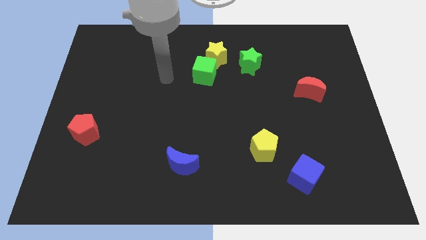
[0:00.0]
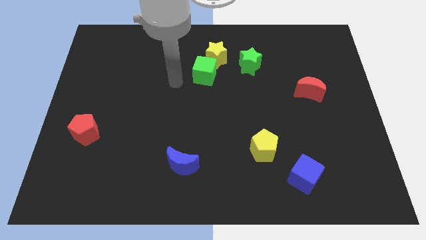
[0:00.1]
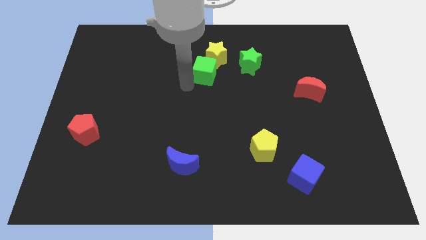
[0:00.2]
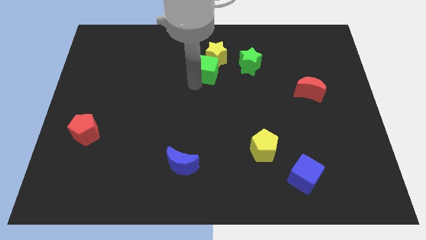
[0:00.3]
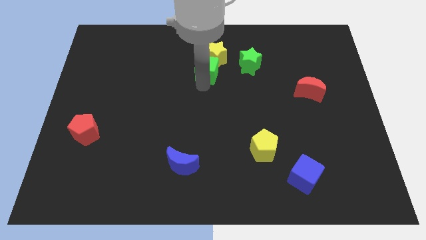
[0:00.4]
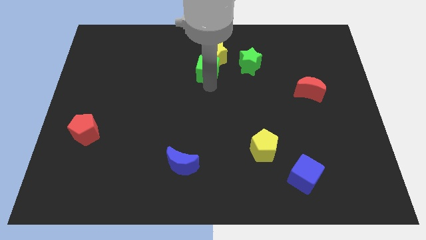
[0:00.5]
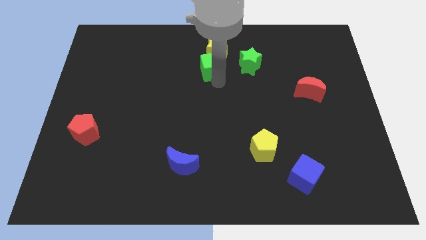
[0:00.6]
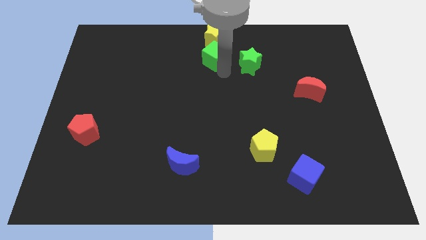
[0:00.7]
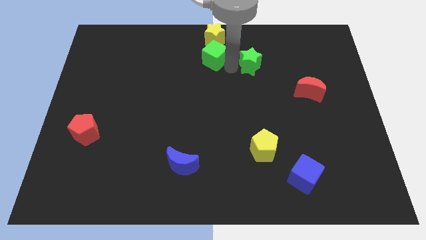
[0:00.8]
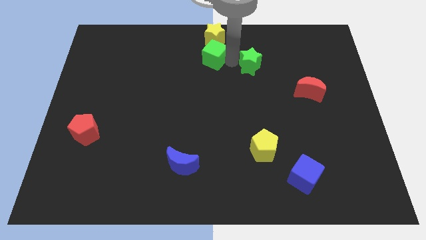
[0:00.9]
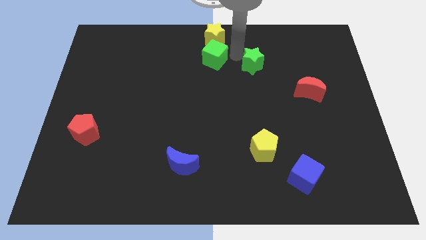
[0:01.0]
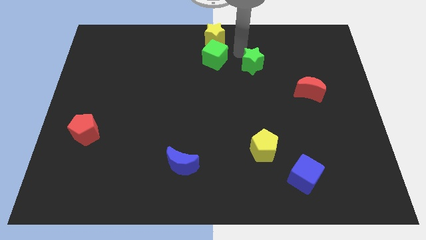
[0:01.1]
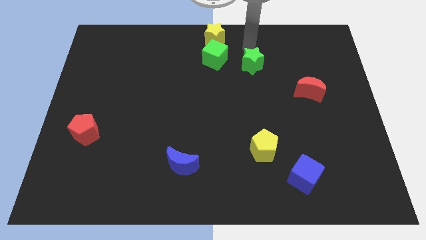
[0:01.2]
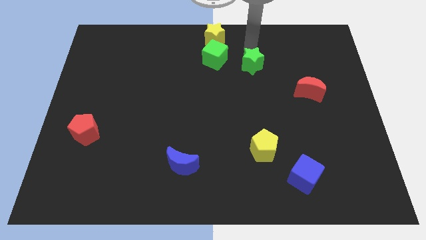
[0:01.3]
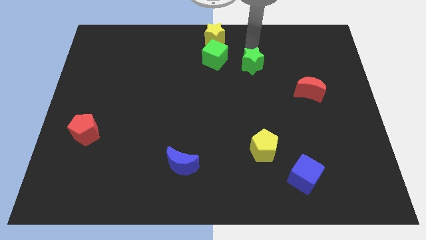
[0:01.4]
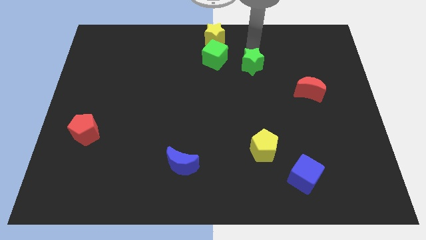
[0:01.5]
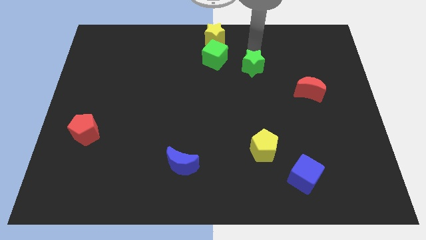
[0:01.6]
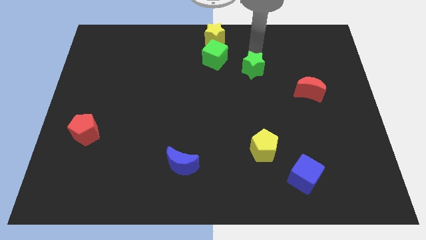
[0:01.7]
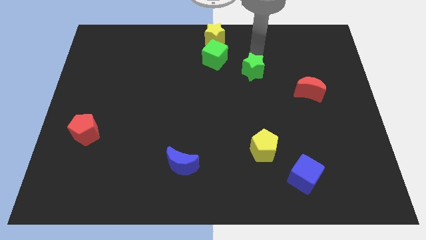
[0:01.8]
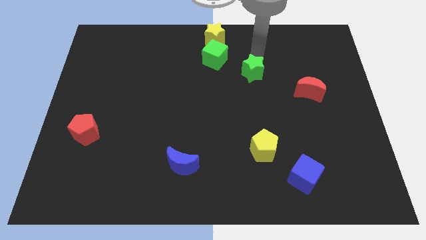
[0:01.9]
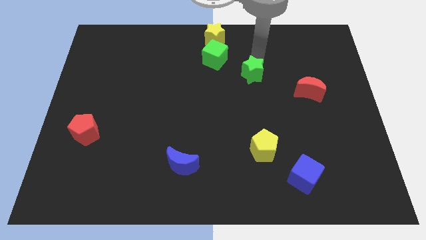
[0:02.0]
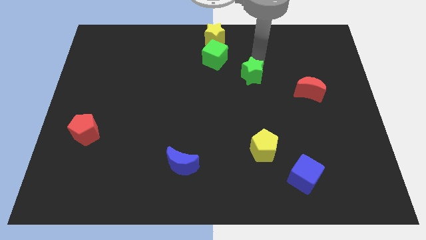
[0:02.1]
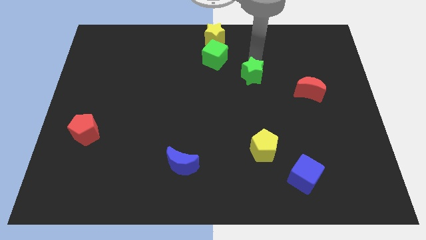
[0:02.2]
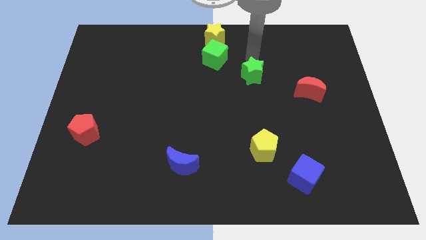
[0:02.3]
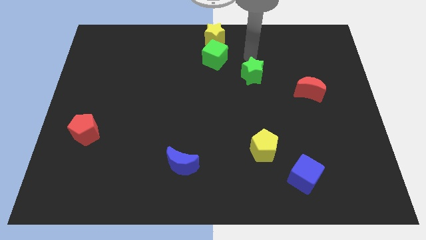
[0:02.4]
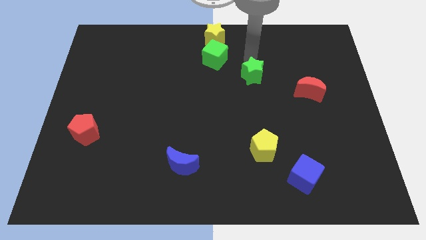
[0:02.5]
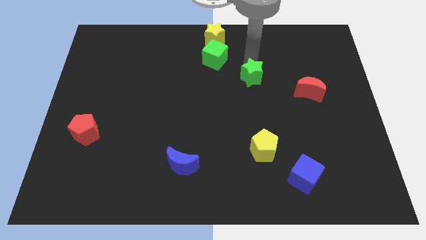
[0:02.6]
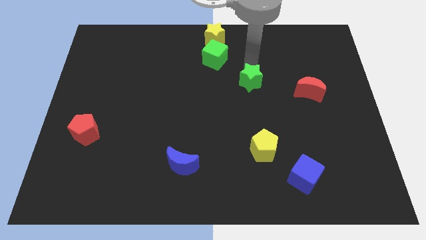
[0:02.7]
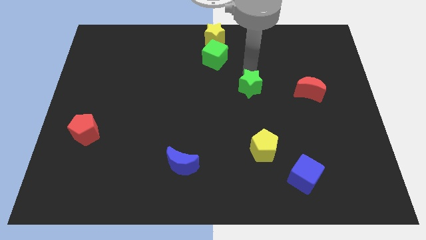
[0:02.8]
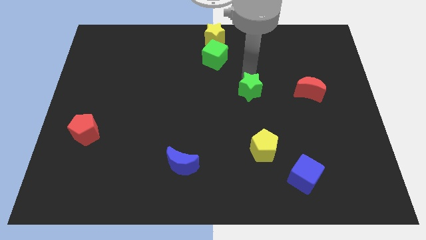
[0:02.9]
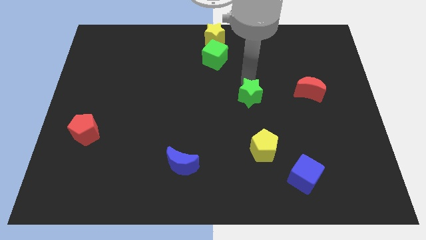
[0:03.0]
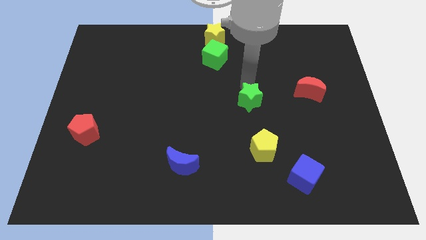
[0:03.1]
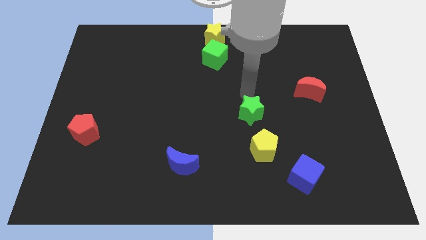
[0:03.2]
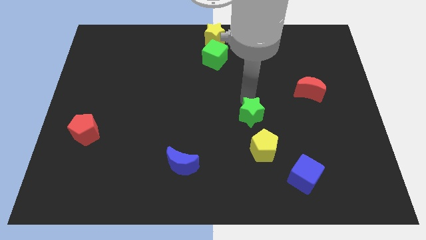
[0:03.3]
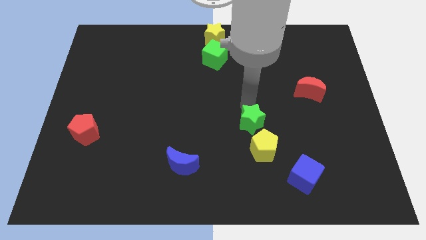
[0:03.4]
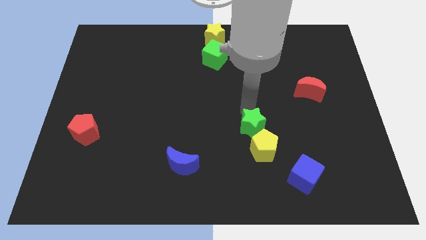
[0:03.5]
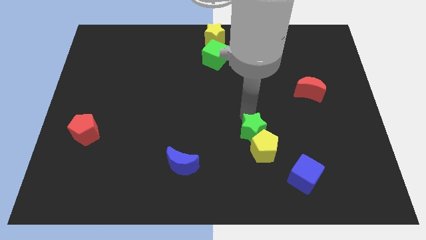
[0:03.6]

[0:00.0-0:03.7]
put the green star close to the yellow pentagon

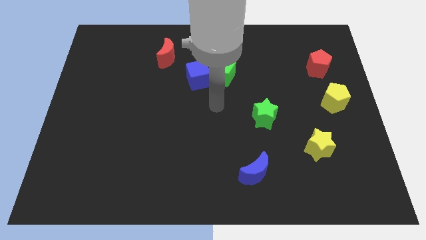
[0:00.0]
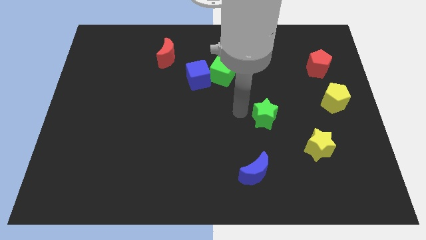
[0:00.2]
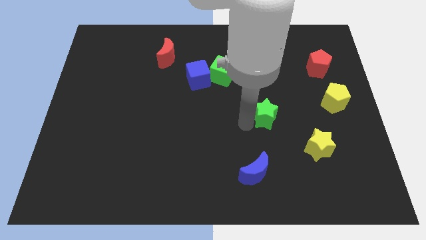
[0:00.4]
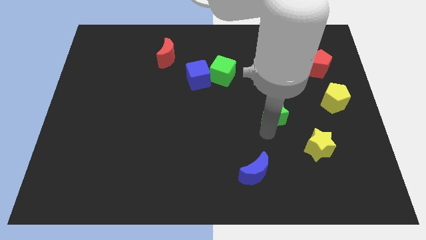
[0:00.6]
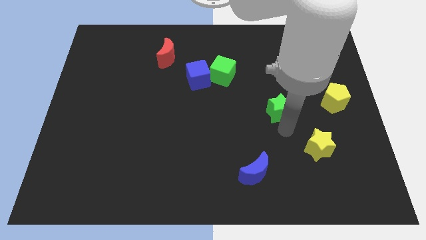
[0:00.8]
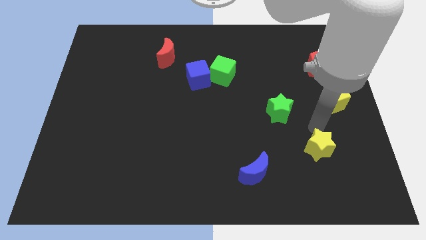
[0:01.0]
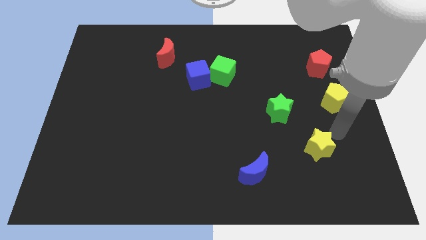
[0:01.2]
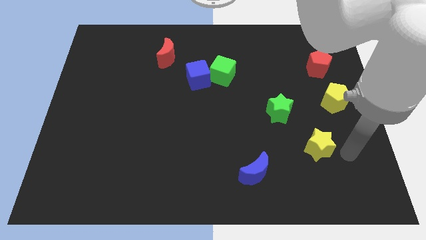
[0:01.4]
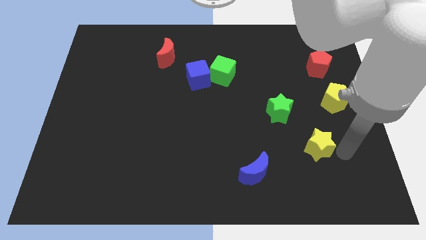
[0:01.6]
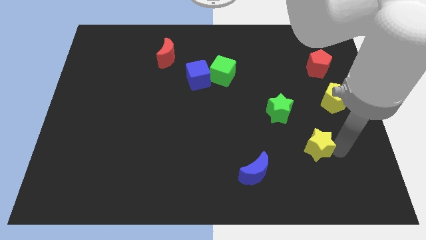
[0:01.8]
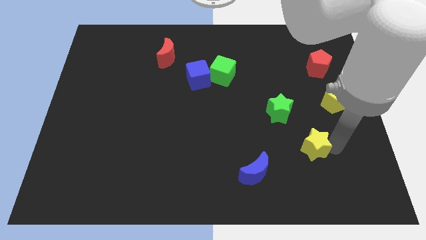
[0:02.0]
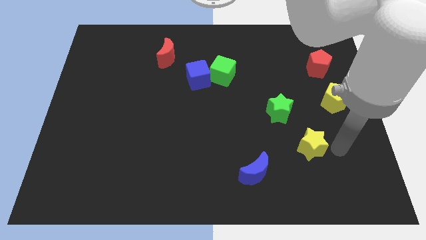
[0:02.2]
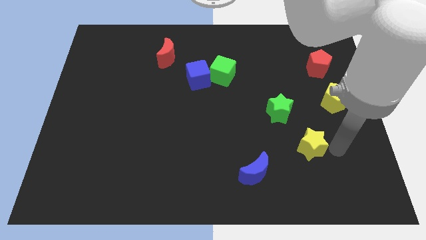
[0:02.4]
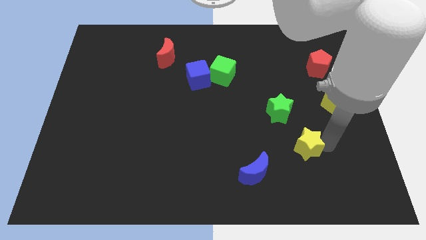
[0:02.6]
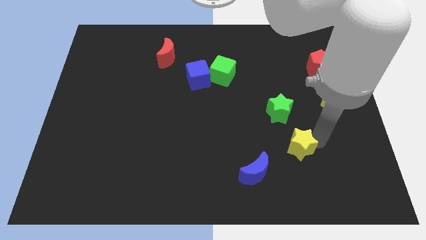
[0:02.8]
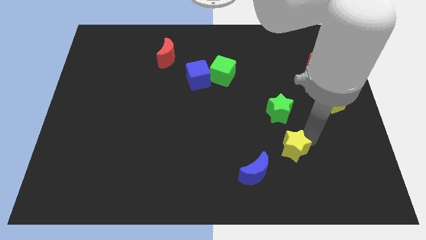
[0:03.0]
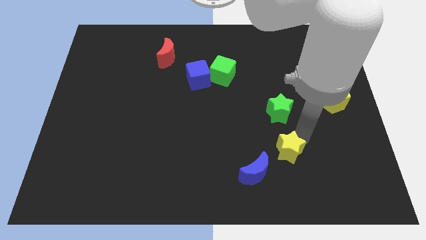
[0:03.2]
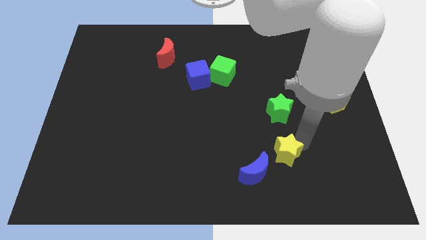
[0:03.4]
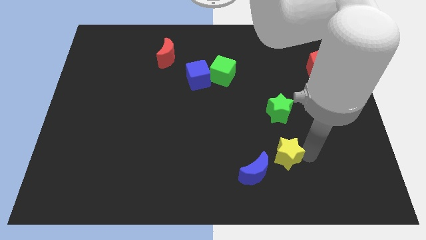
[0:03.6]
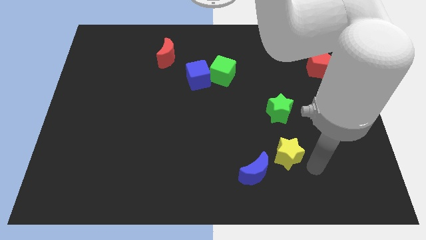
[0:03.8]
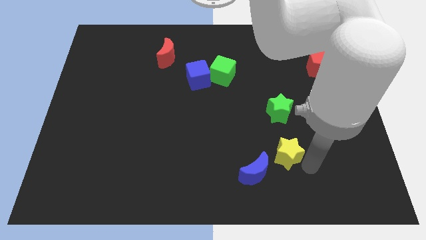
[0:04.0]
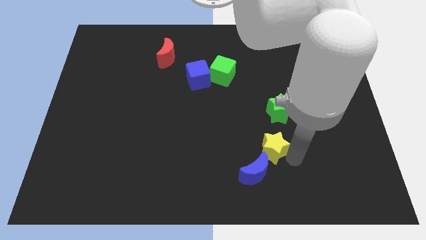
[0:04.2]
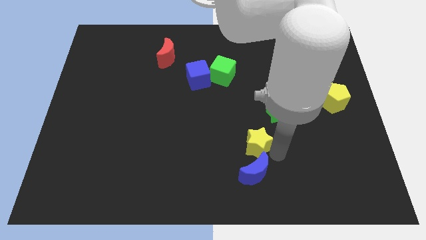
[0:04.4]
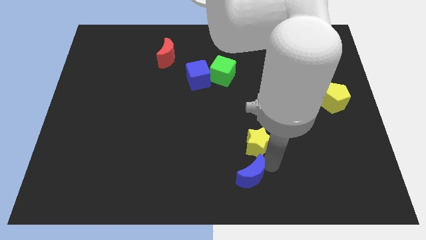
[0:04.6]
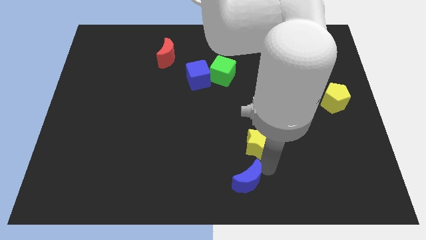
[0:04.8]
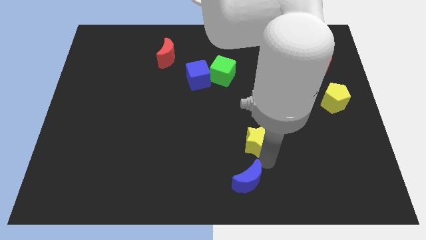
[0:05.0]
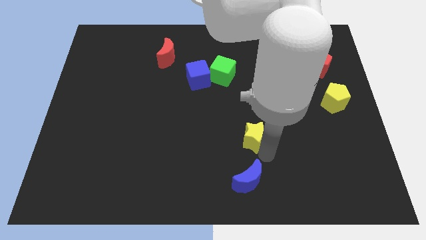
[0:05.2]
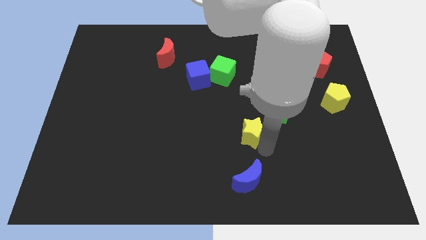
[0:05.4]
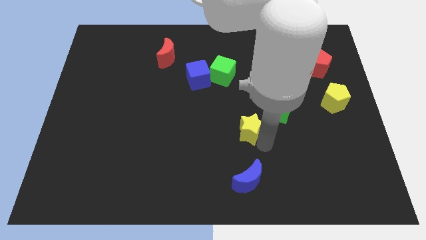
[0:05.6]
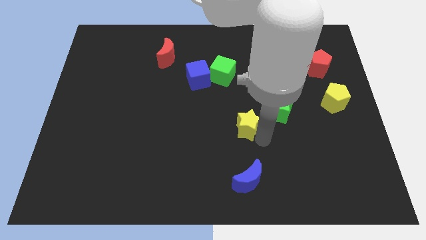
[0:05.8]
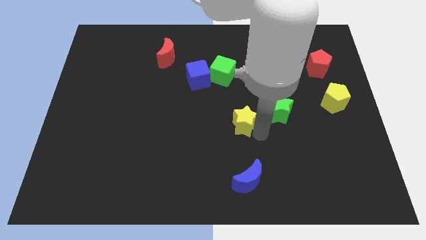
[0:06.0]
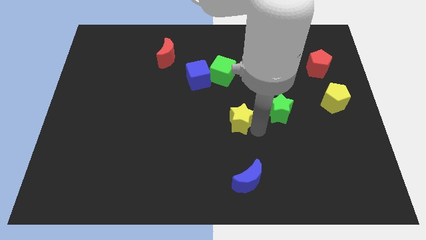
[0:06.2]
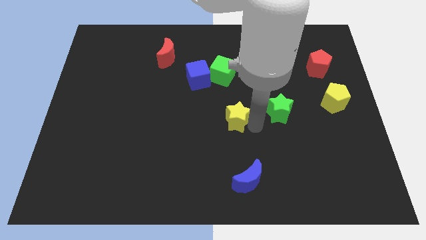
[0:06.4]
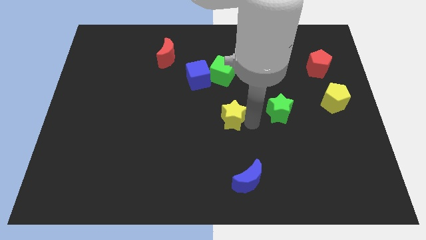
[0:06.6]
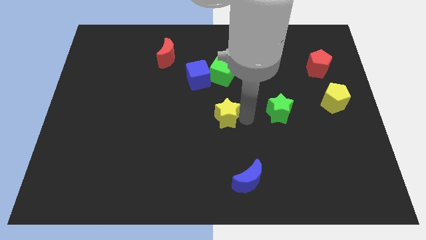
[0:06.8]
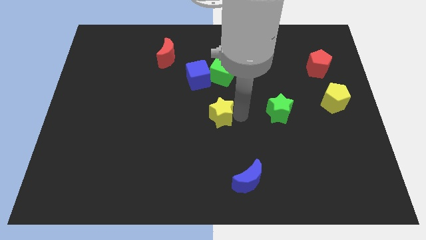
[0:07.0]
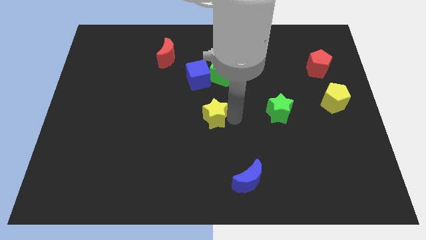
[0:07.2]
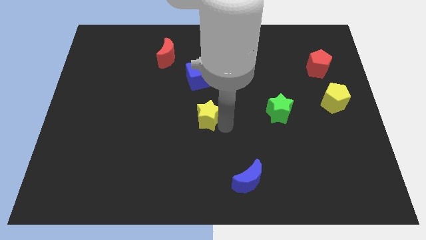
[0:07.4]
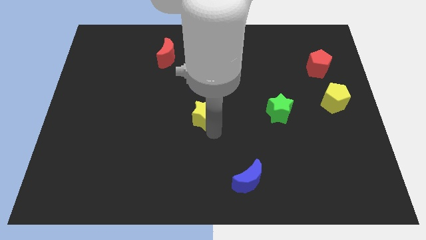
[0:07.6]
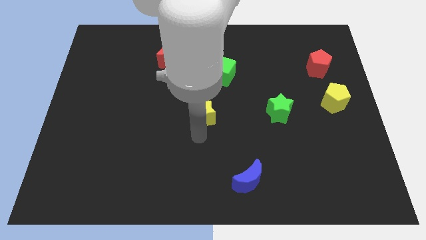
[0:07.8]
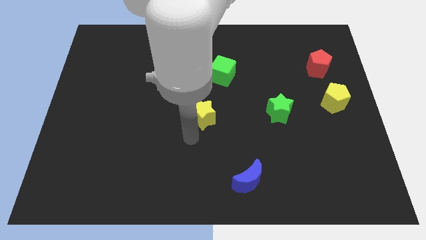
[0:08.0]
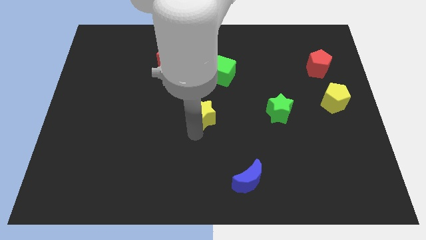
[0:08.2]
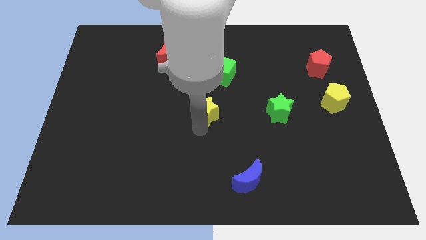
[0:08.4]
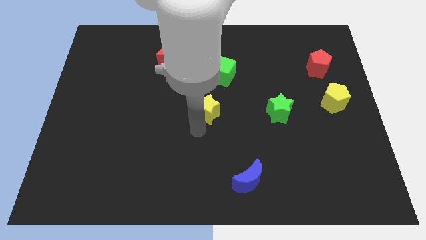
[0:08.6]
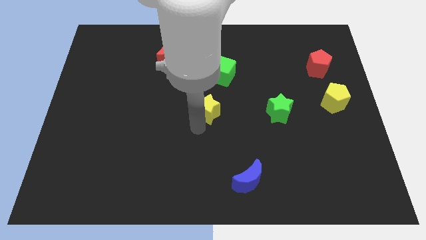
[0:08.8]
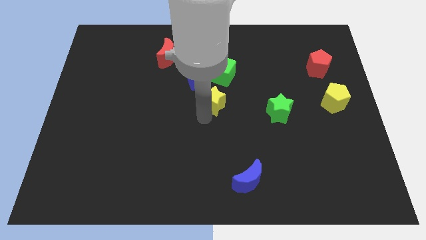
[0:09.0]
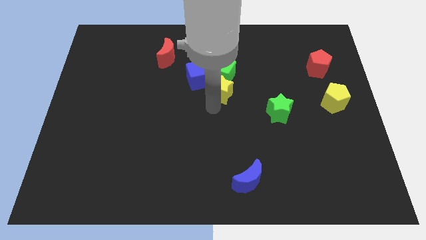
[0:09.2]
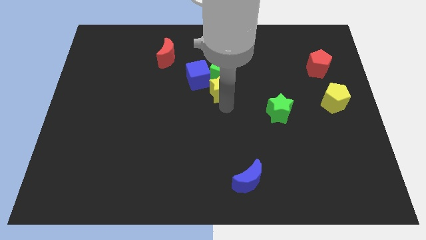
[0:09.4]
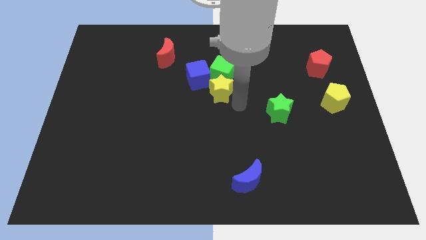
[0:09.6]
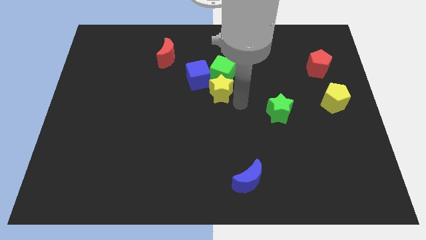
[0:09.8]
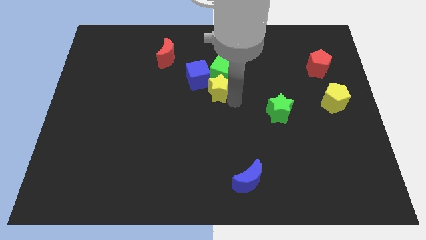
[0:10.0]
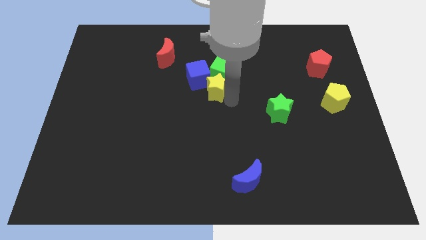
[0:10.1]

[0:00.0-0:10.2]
put the yellow star to the blue cube
